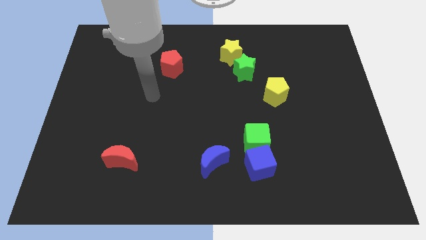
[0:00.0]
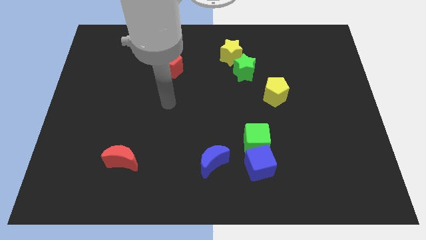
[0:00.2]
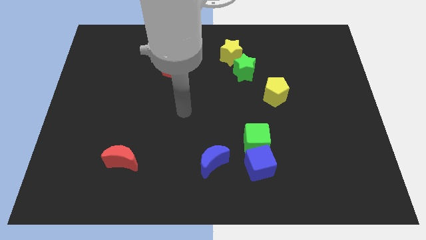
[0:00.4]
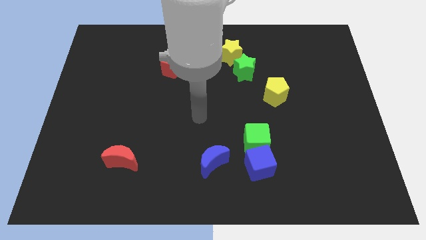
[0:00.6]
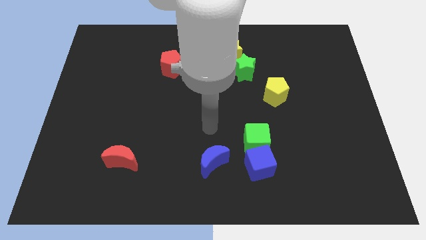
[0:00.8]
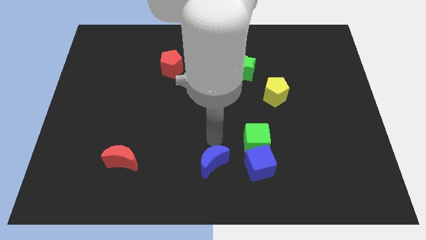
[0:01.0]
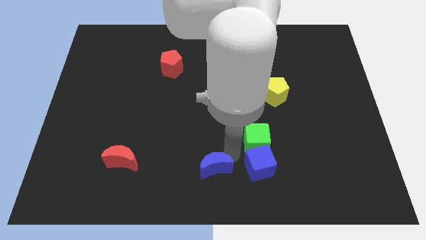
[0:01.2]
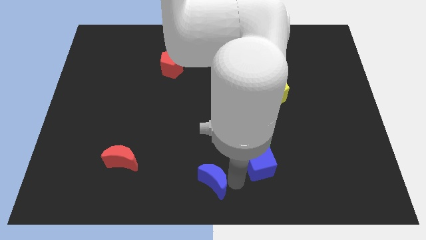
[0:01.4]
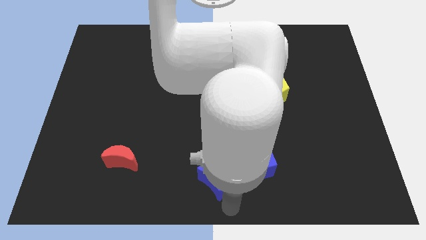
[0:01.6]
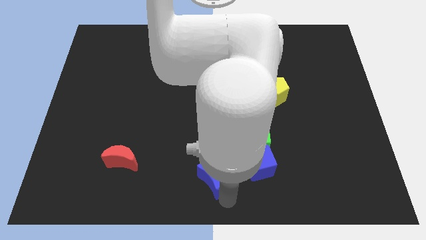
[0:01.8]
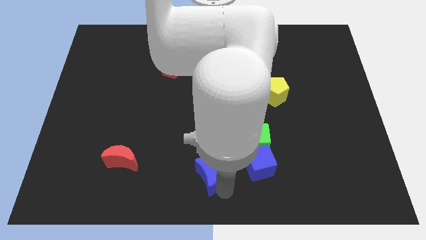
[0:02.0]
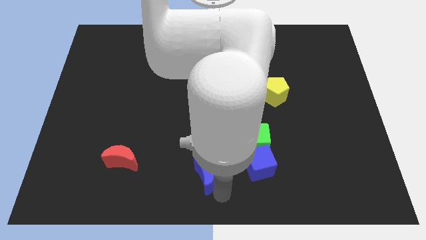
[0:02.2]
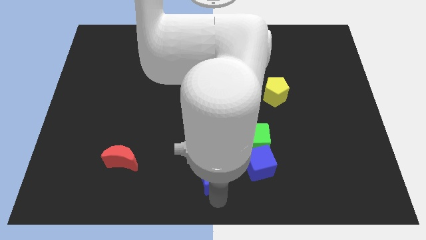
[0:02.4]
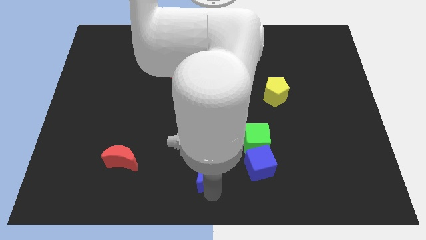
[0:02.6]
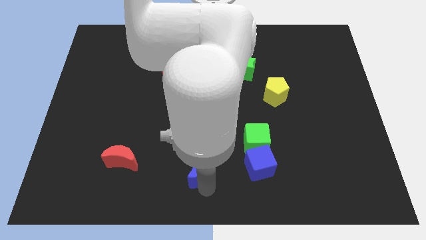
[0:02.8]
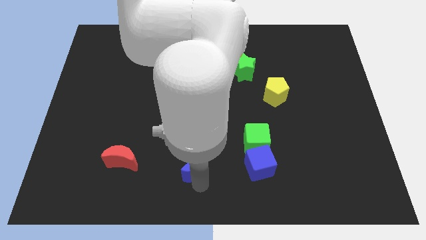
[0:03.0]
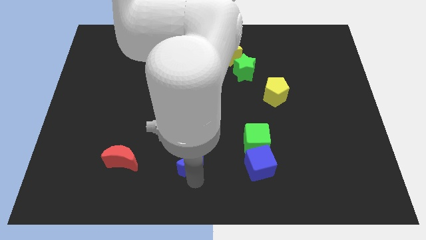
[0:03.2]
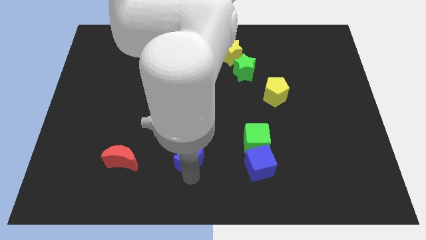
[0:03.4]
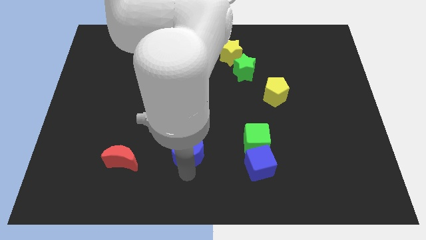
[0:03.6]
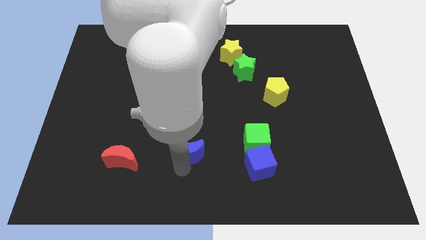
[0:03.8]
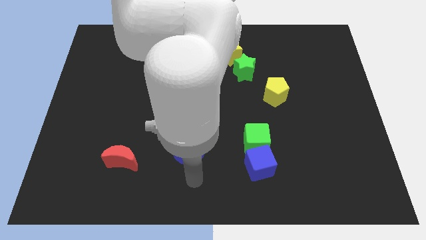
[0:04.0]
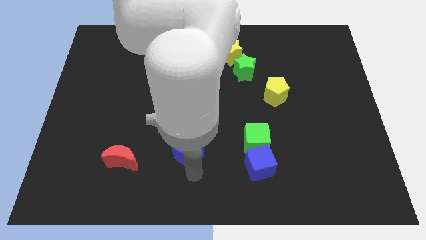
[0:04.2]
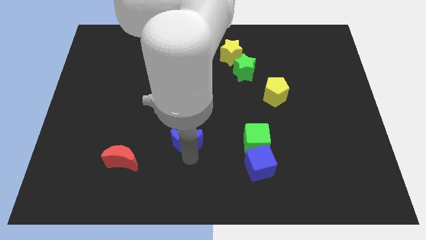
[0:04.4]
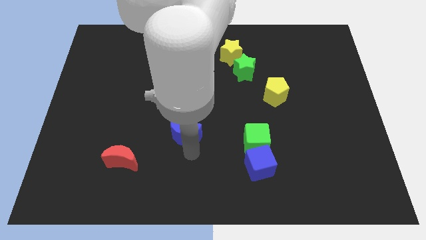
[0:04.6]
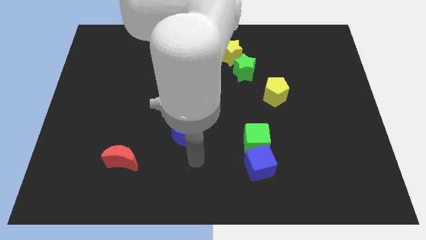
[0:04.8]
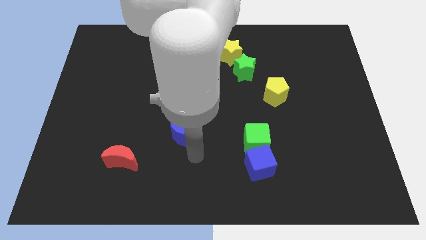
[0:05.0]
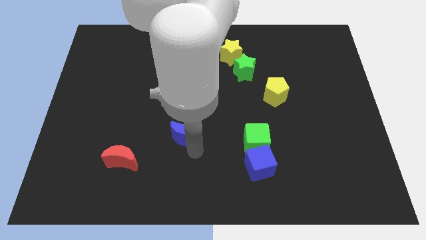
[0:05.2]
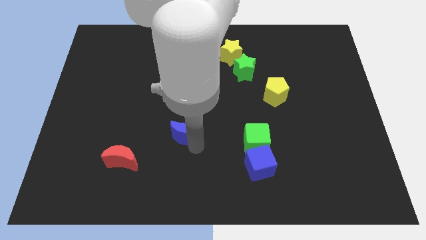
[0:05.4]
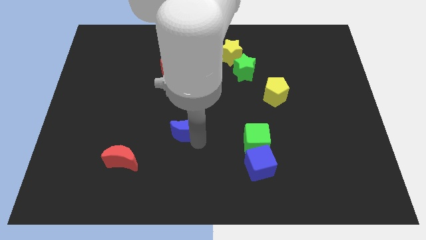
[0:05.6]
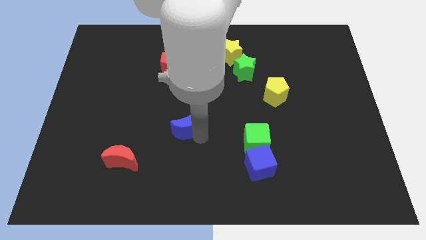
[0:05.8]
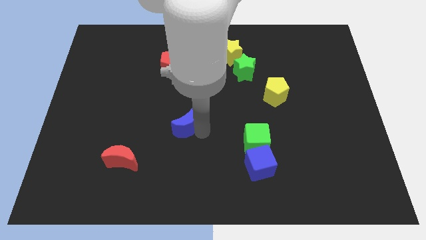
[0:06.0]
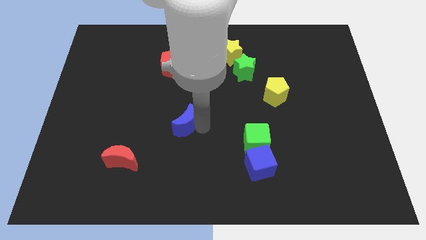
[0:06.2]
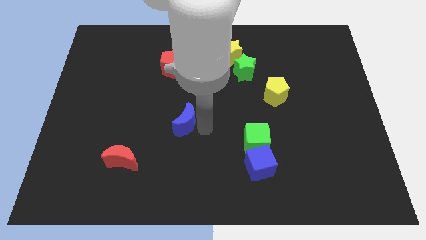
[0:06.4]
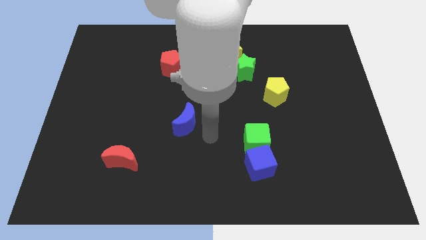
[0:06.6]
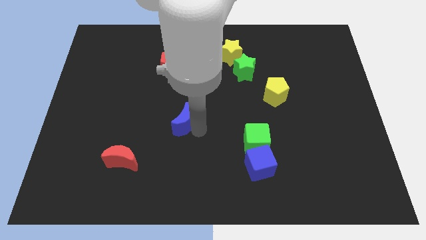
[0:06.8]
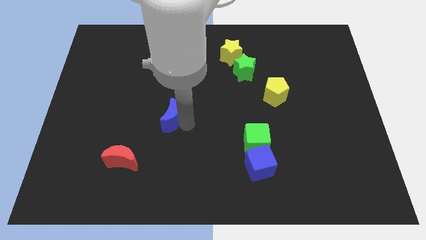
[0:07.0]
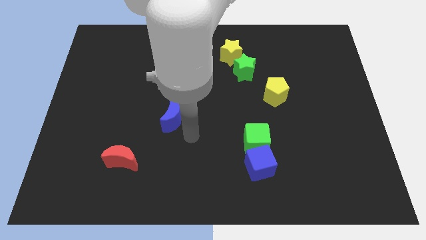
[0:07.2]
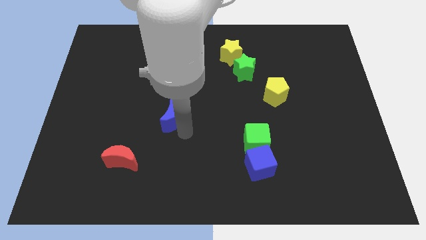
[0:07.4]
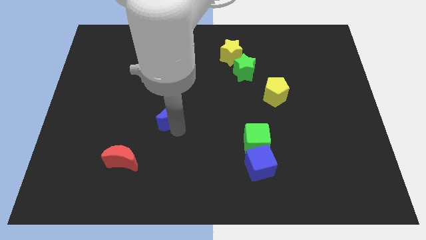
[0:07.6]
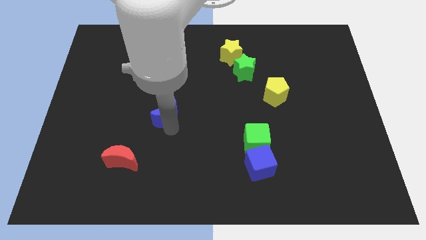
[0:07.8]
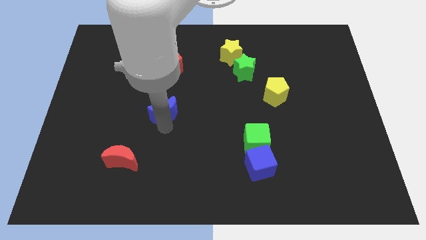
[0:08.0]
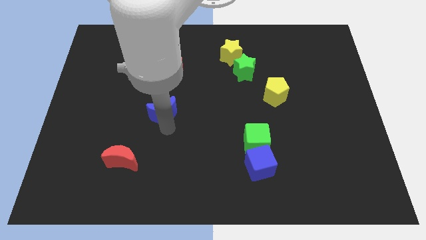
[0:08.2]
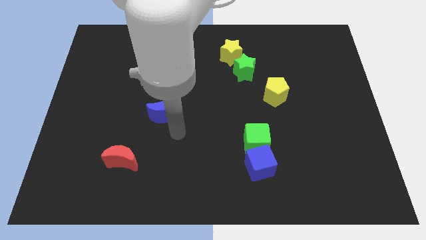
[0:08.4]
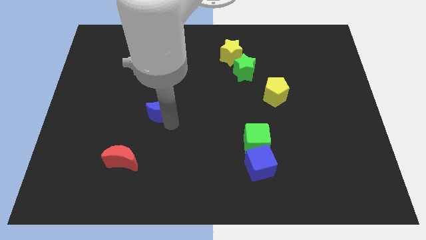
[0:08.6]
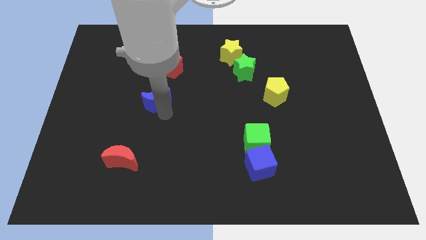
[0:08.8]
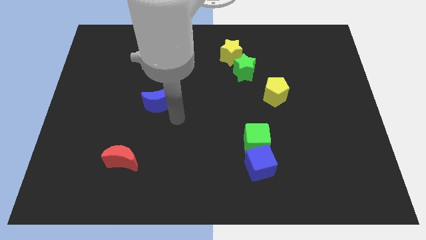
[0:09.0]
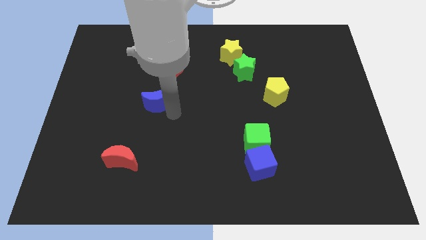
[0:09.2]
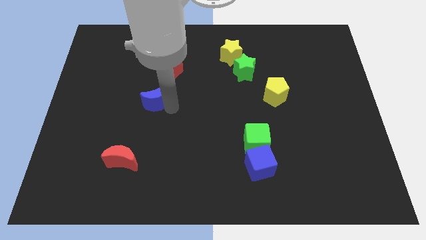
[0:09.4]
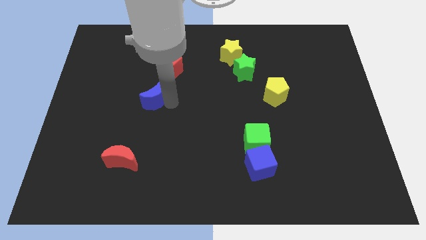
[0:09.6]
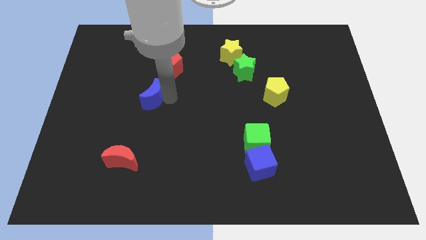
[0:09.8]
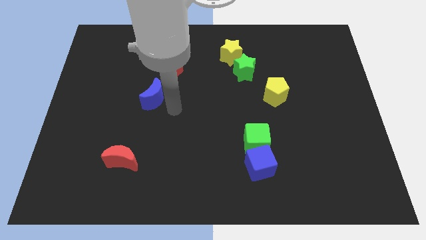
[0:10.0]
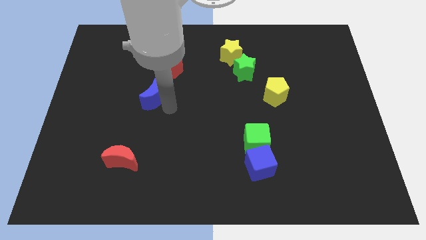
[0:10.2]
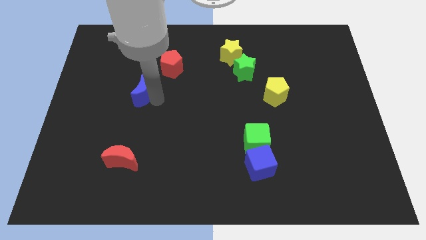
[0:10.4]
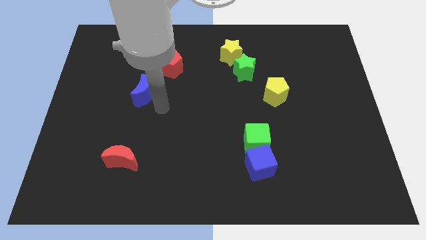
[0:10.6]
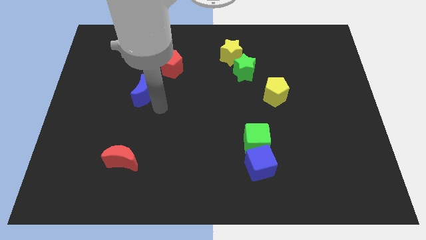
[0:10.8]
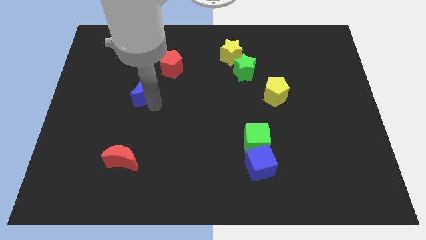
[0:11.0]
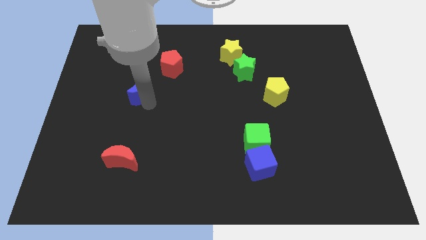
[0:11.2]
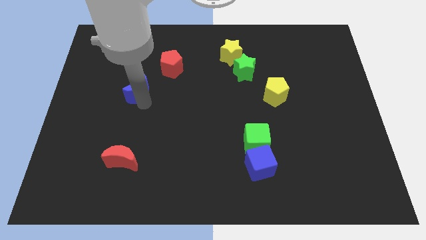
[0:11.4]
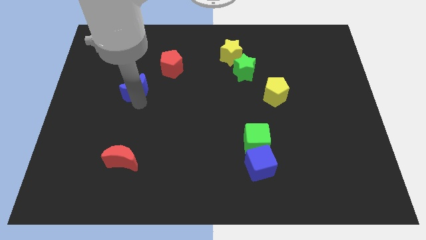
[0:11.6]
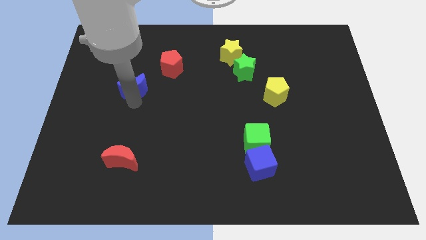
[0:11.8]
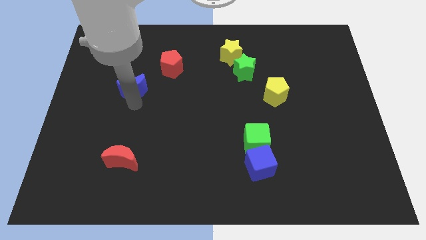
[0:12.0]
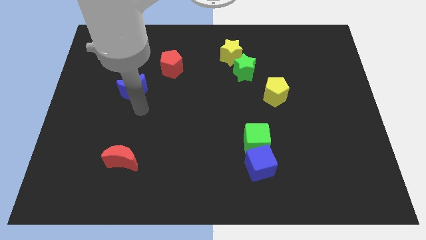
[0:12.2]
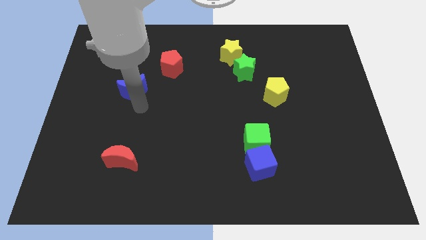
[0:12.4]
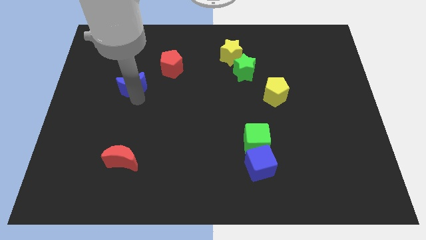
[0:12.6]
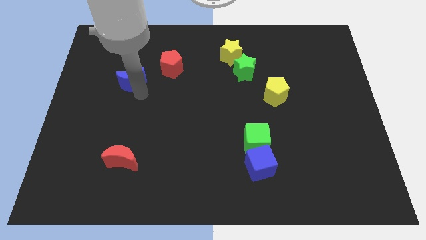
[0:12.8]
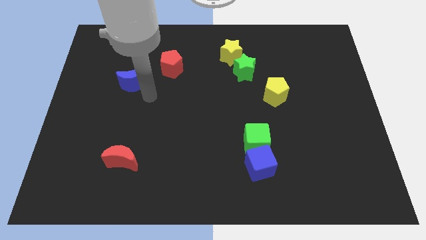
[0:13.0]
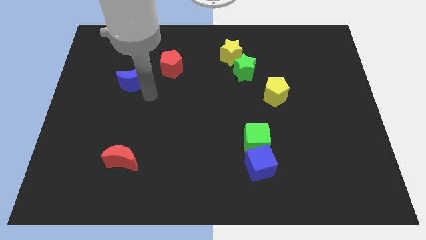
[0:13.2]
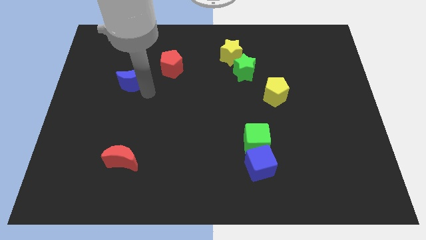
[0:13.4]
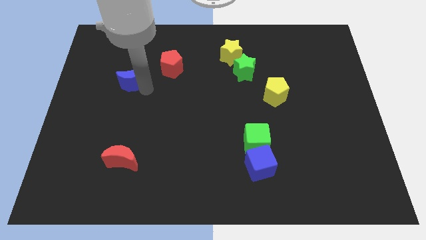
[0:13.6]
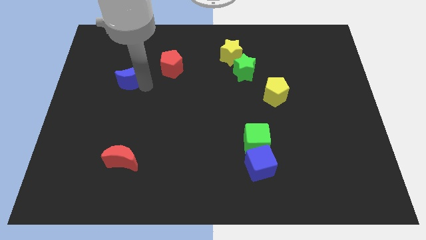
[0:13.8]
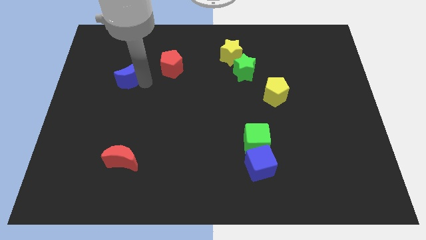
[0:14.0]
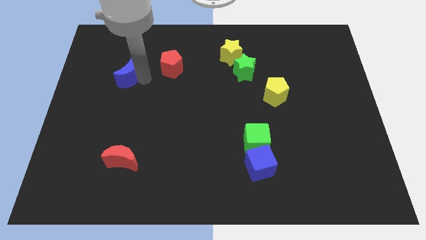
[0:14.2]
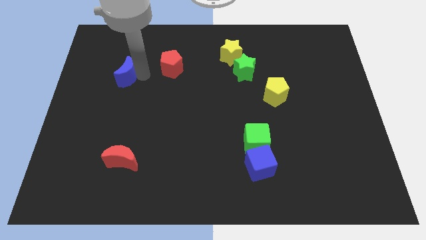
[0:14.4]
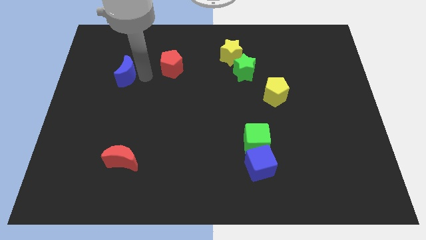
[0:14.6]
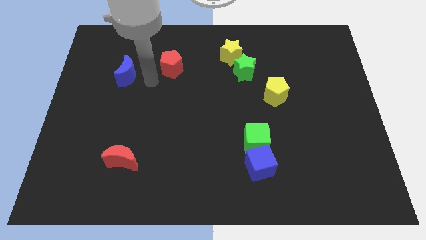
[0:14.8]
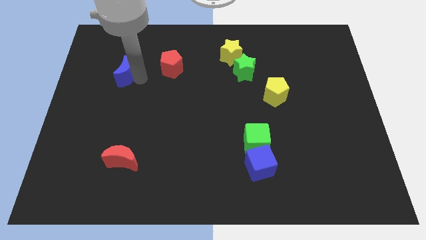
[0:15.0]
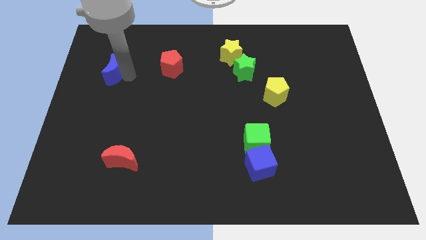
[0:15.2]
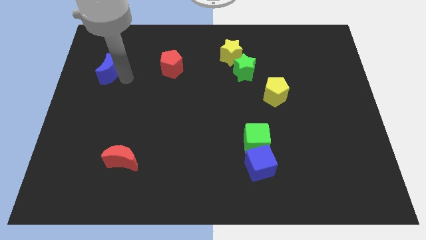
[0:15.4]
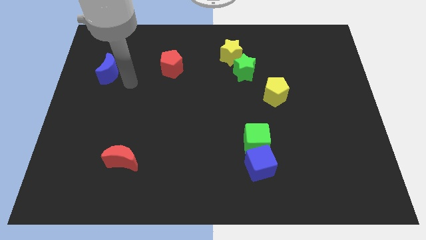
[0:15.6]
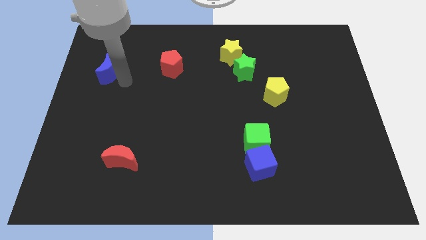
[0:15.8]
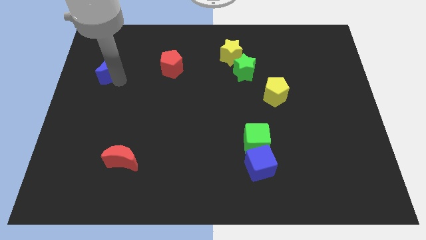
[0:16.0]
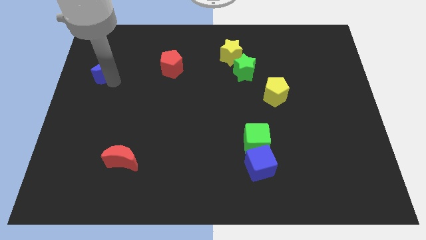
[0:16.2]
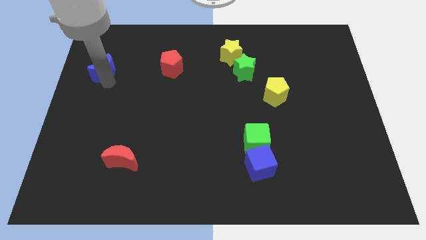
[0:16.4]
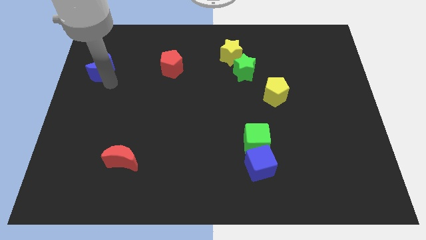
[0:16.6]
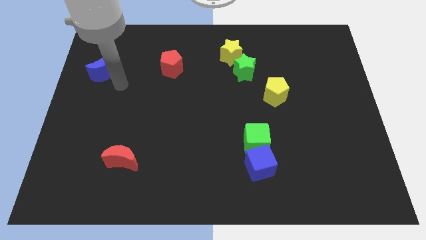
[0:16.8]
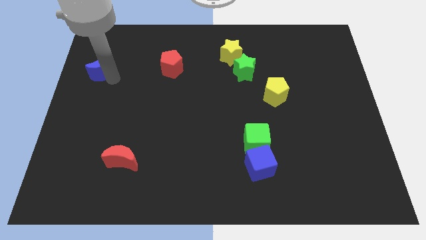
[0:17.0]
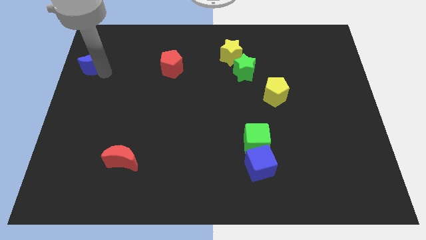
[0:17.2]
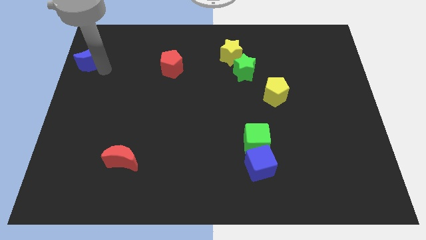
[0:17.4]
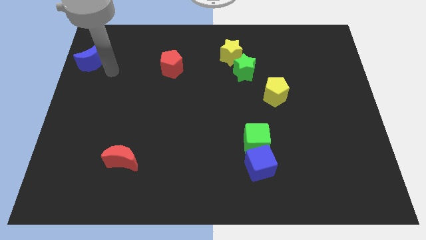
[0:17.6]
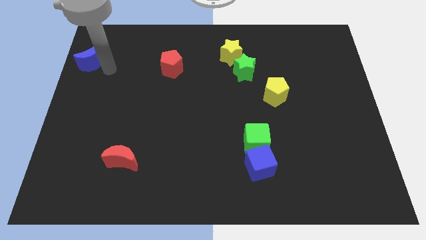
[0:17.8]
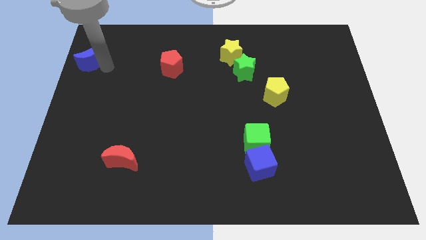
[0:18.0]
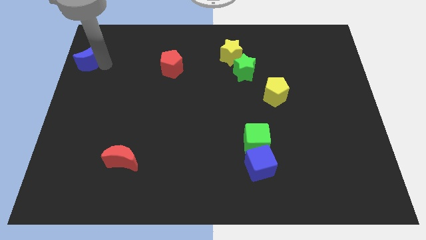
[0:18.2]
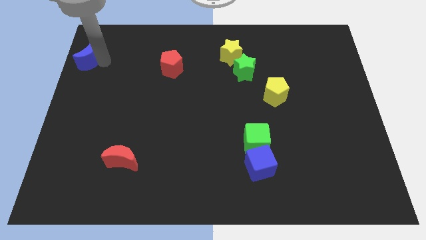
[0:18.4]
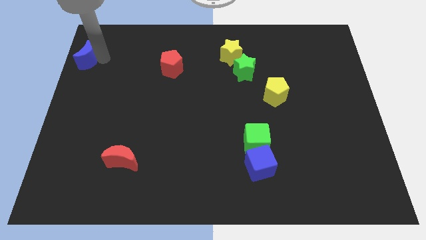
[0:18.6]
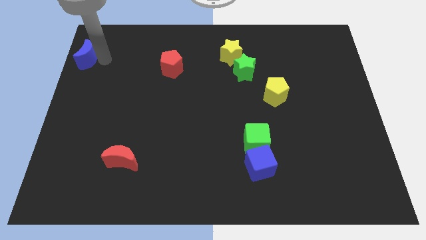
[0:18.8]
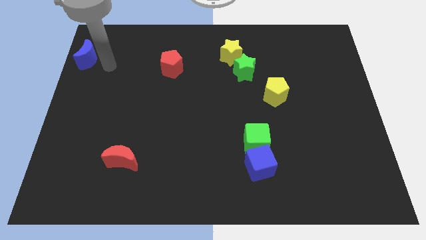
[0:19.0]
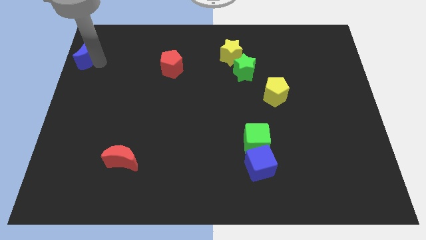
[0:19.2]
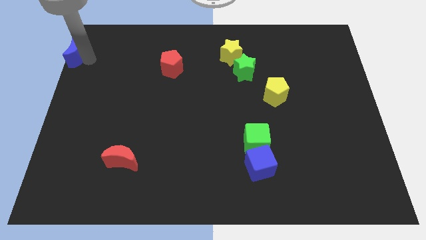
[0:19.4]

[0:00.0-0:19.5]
push the blue moon to the top left
